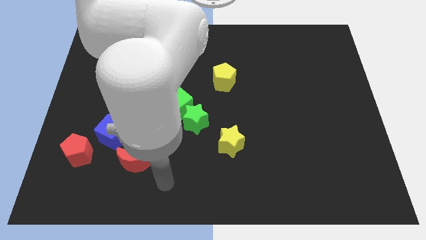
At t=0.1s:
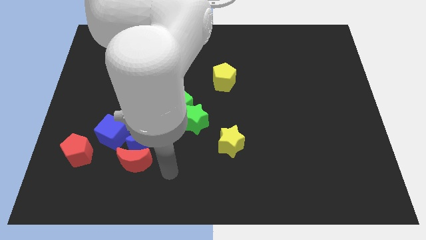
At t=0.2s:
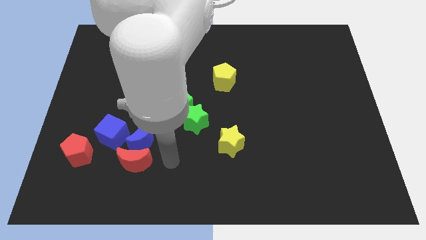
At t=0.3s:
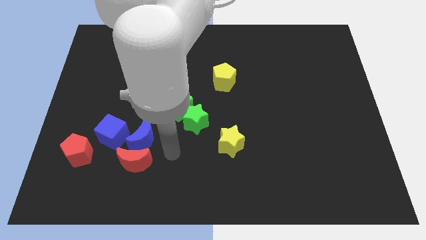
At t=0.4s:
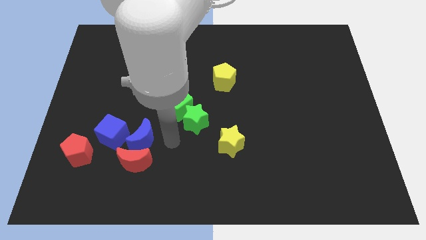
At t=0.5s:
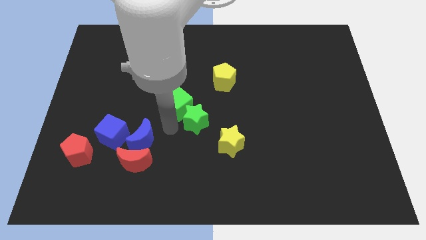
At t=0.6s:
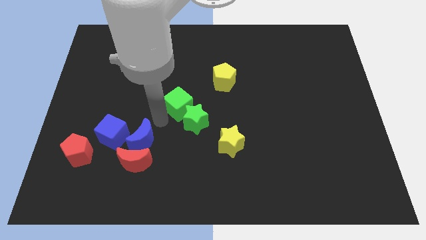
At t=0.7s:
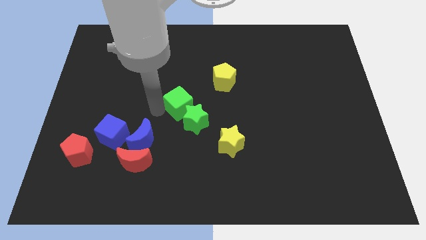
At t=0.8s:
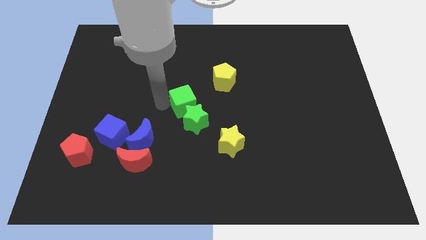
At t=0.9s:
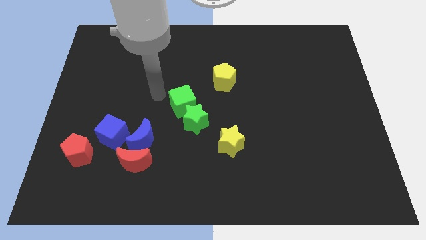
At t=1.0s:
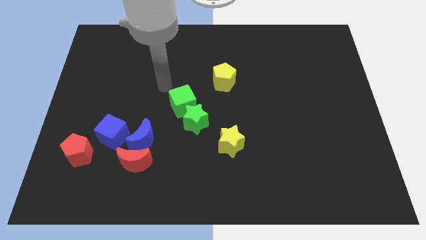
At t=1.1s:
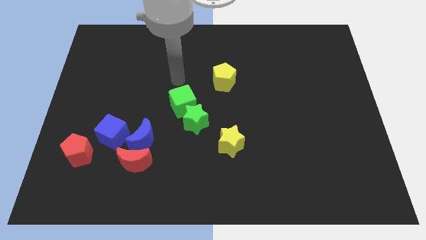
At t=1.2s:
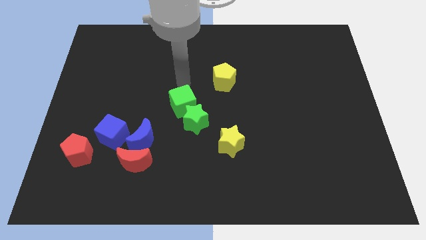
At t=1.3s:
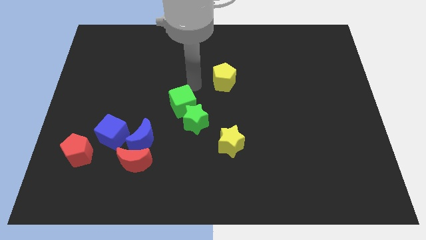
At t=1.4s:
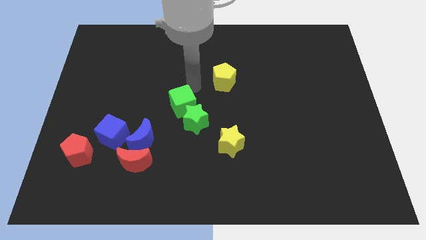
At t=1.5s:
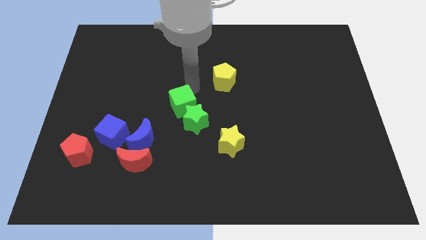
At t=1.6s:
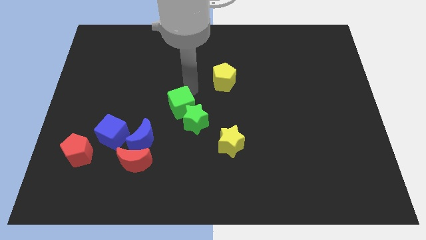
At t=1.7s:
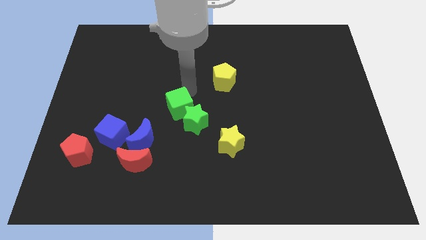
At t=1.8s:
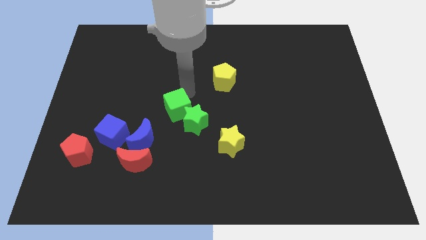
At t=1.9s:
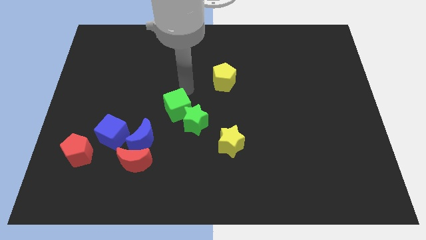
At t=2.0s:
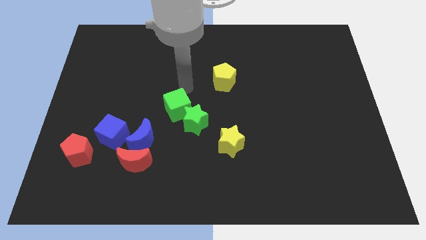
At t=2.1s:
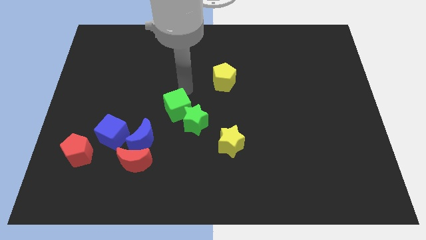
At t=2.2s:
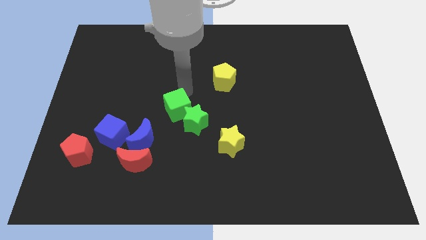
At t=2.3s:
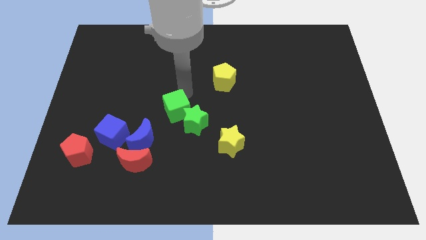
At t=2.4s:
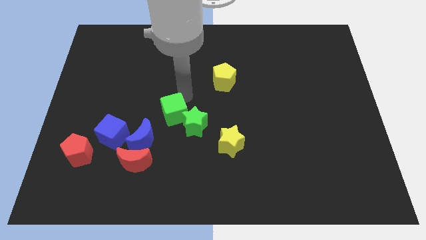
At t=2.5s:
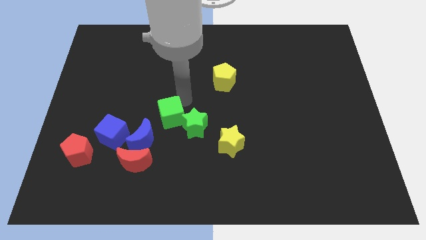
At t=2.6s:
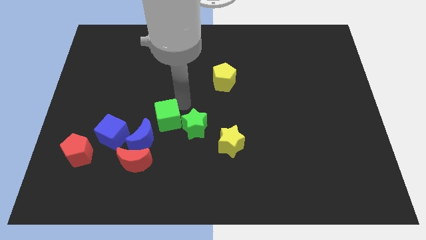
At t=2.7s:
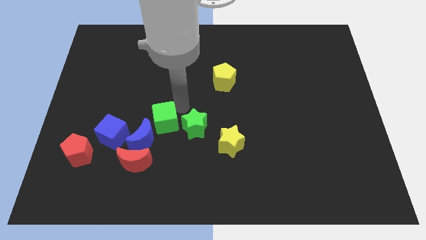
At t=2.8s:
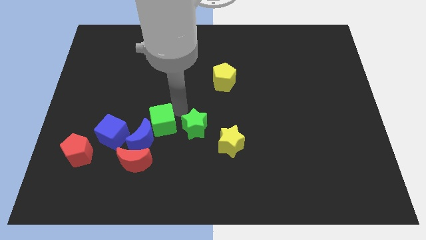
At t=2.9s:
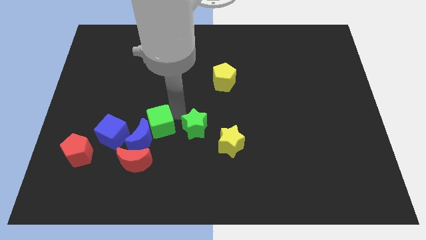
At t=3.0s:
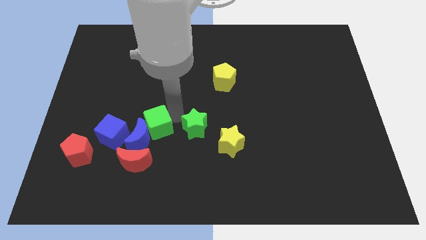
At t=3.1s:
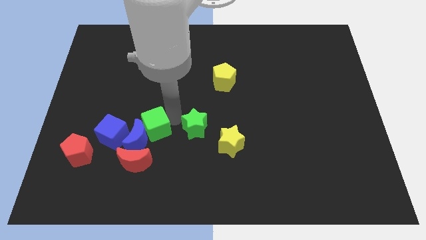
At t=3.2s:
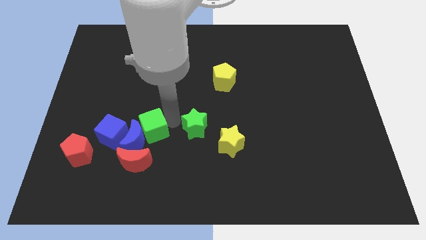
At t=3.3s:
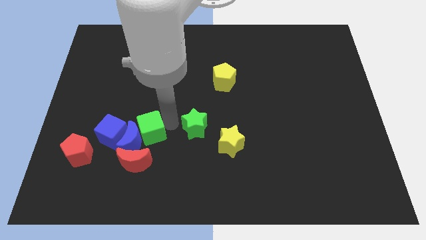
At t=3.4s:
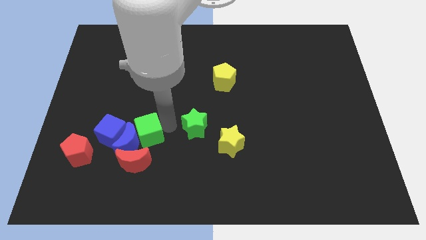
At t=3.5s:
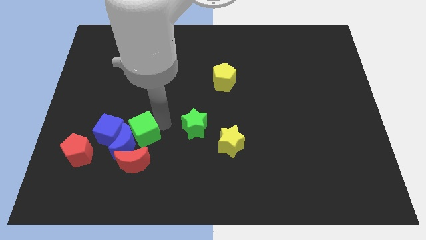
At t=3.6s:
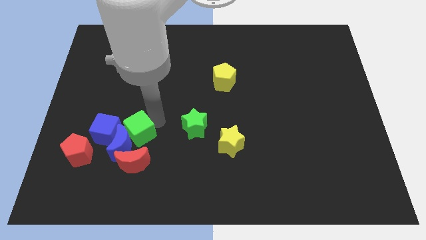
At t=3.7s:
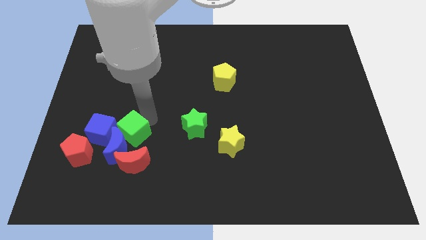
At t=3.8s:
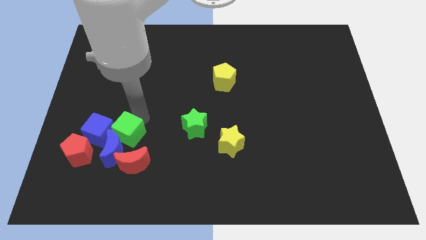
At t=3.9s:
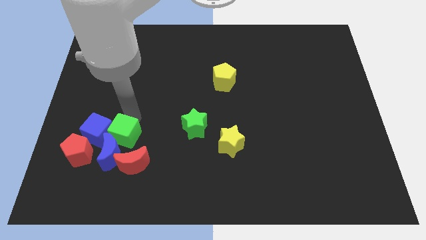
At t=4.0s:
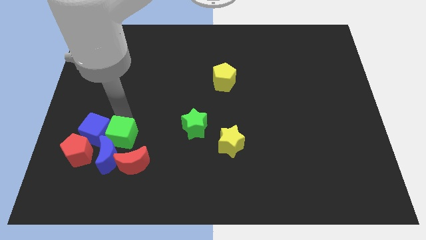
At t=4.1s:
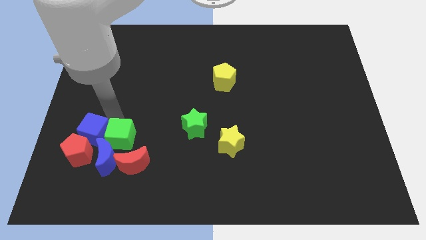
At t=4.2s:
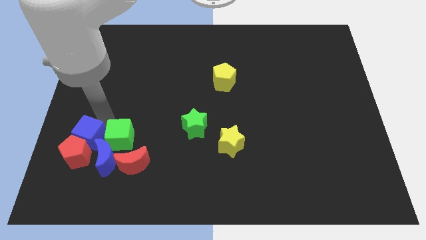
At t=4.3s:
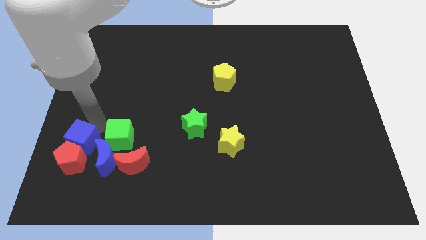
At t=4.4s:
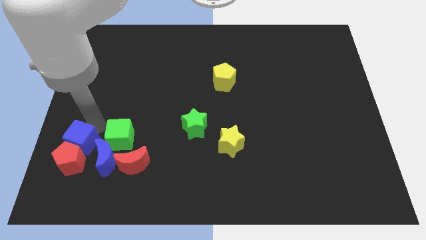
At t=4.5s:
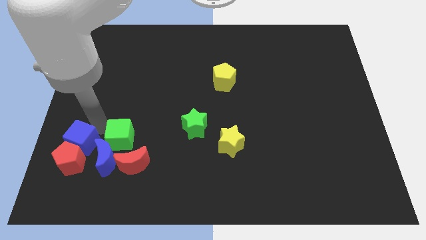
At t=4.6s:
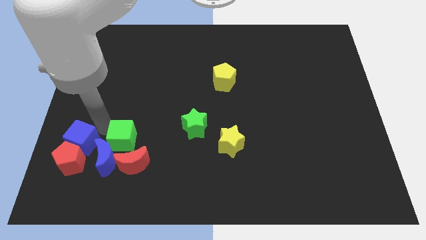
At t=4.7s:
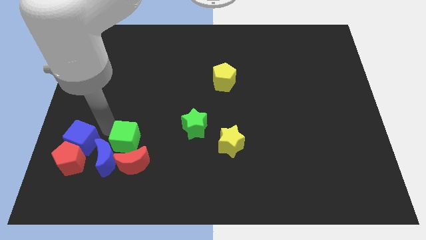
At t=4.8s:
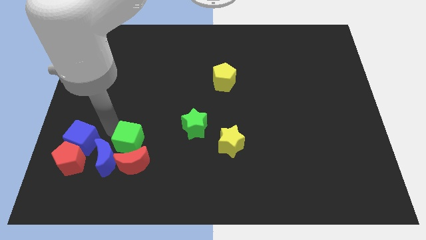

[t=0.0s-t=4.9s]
slide the green cube towards the red moon

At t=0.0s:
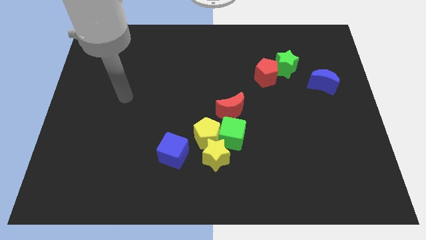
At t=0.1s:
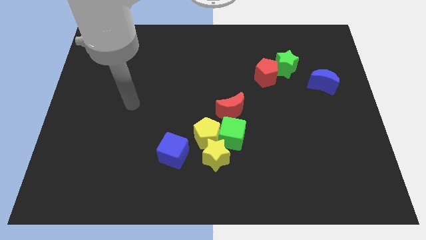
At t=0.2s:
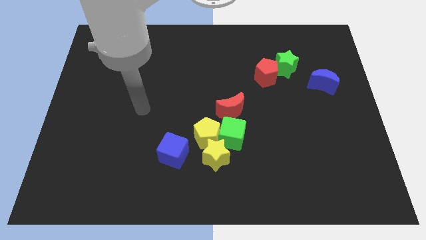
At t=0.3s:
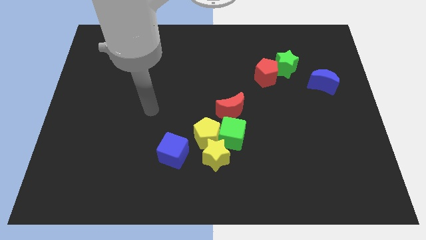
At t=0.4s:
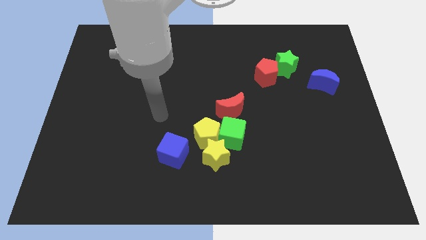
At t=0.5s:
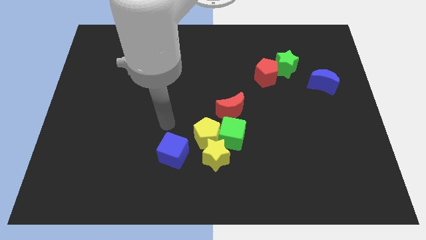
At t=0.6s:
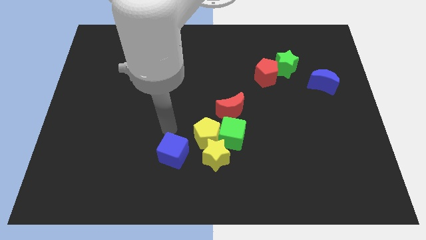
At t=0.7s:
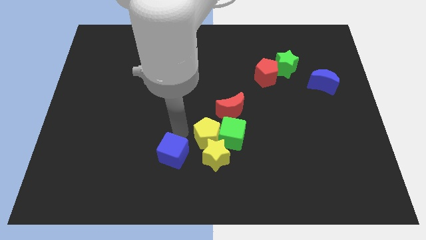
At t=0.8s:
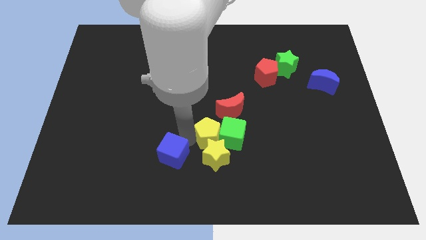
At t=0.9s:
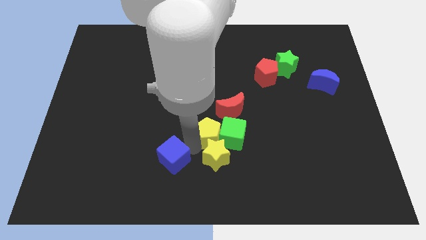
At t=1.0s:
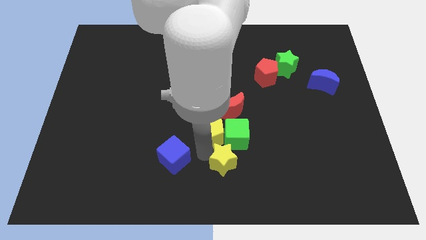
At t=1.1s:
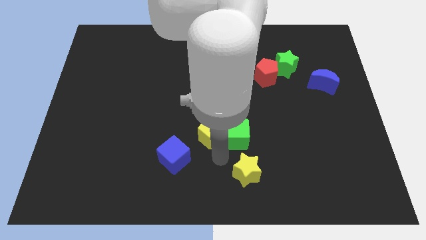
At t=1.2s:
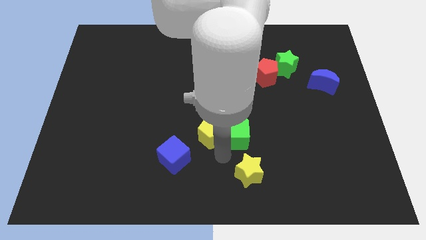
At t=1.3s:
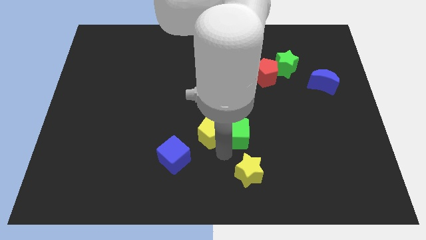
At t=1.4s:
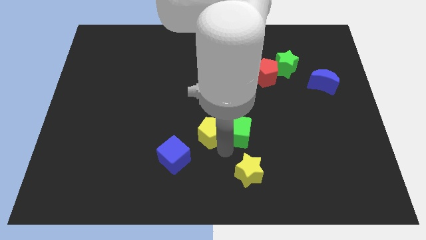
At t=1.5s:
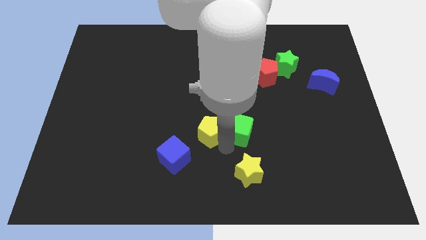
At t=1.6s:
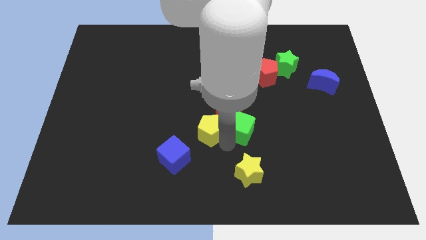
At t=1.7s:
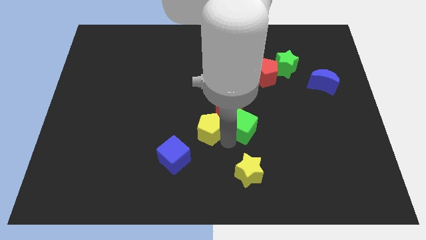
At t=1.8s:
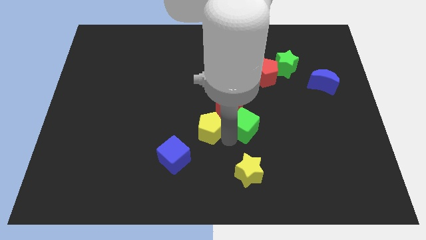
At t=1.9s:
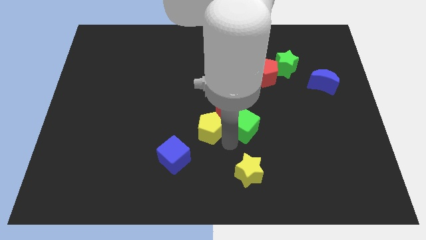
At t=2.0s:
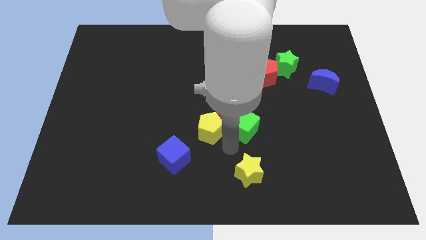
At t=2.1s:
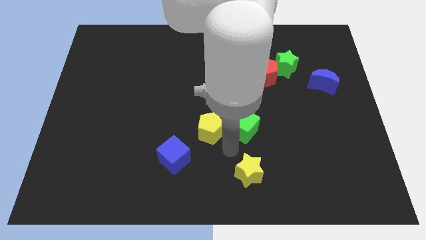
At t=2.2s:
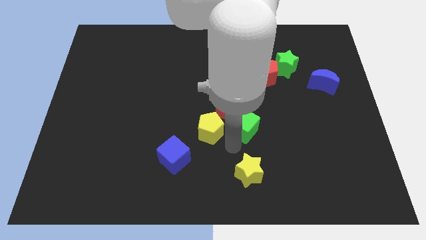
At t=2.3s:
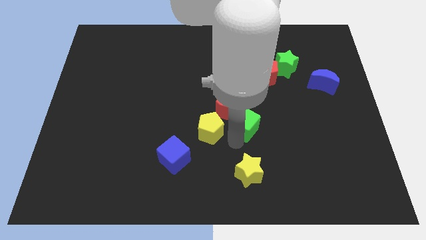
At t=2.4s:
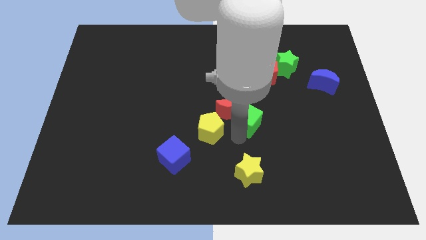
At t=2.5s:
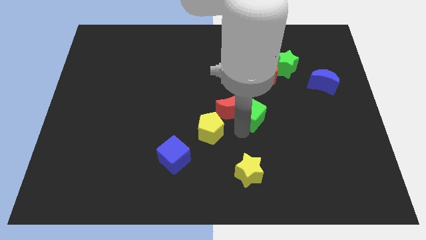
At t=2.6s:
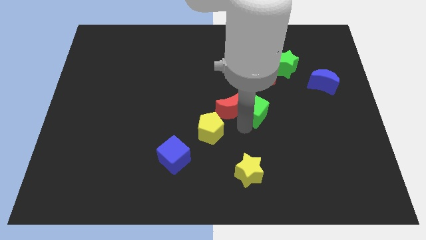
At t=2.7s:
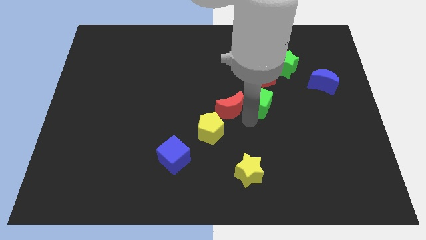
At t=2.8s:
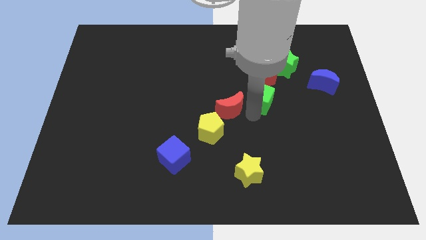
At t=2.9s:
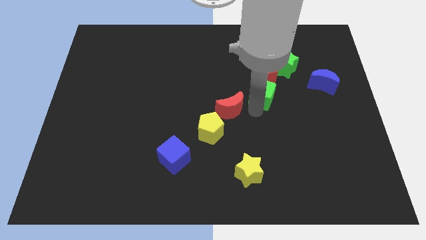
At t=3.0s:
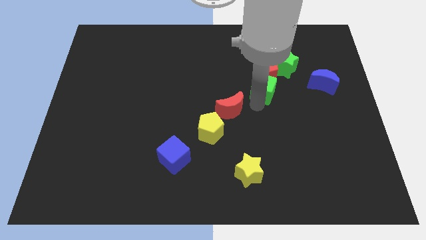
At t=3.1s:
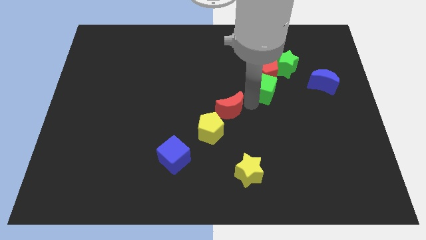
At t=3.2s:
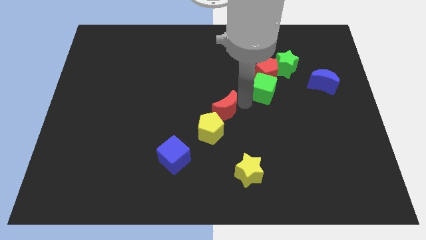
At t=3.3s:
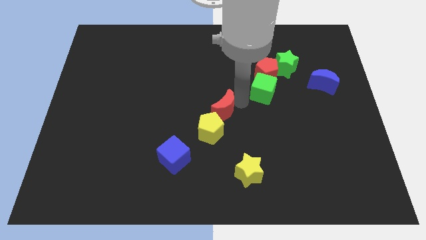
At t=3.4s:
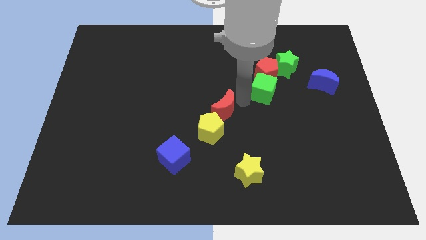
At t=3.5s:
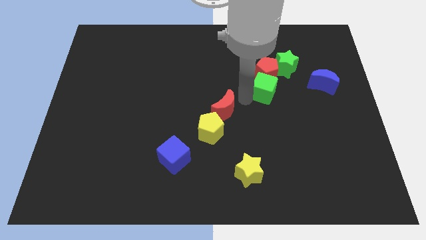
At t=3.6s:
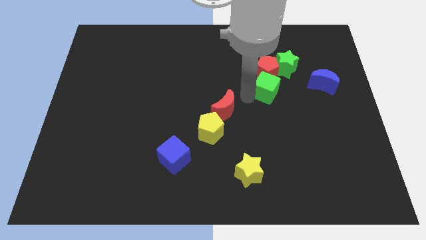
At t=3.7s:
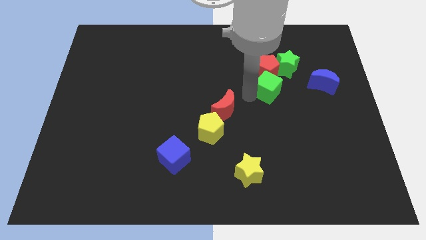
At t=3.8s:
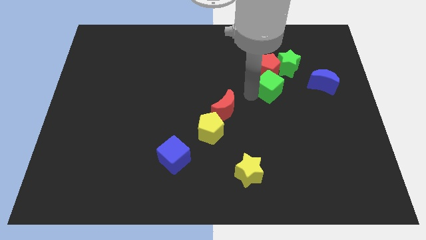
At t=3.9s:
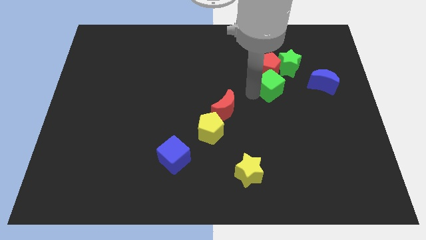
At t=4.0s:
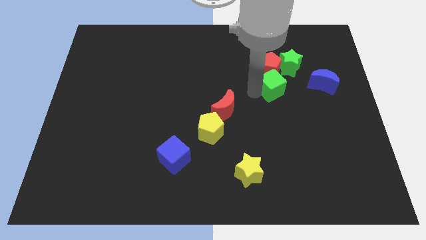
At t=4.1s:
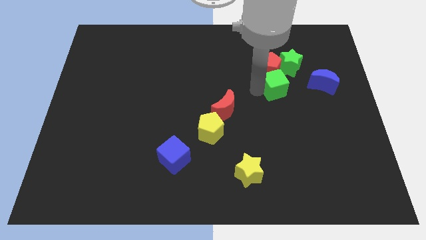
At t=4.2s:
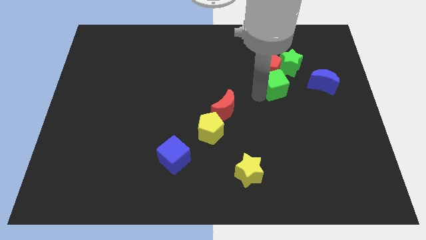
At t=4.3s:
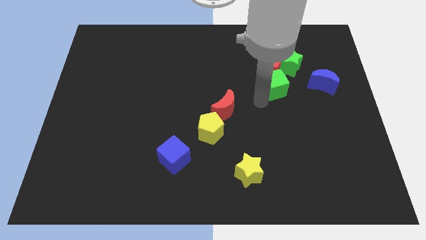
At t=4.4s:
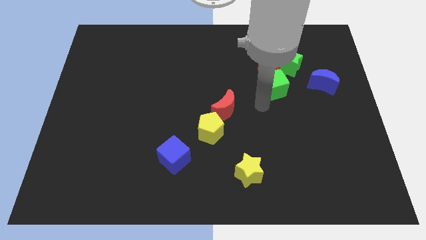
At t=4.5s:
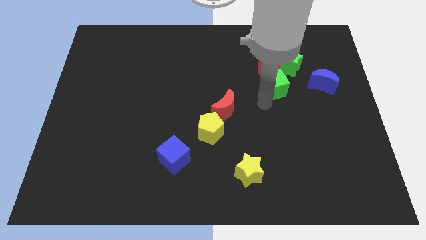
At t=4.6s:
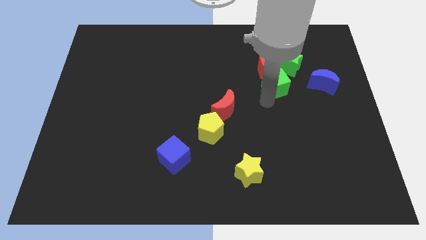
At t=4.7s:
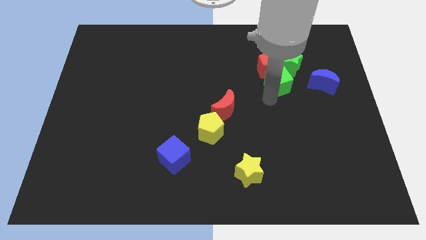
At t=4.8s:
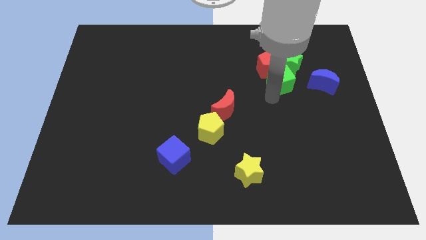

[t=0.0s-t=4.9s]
push the green cube next to the green star
